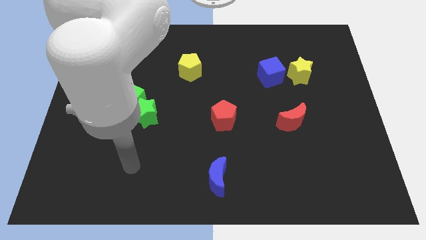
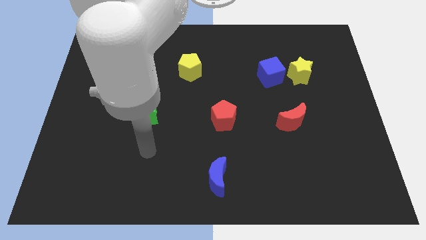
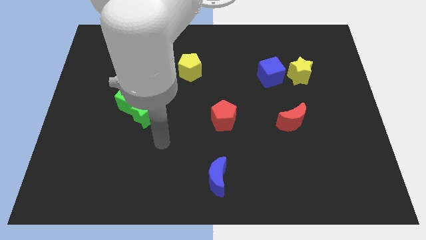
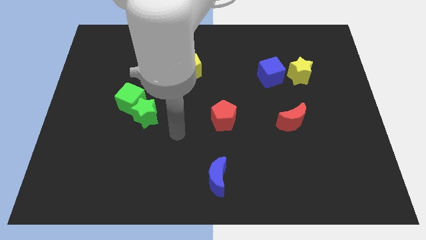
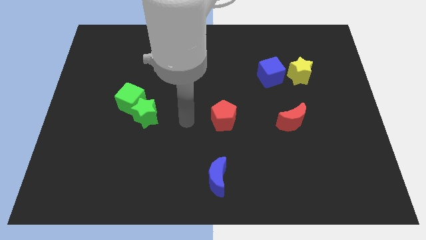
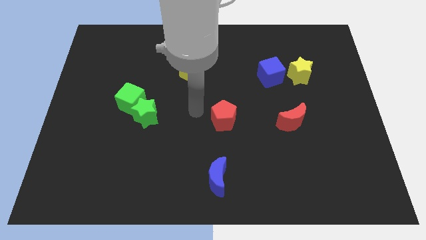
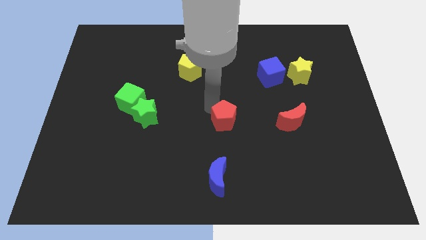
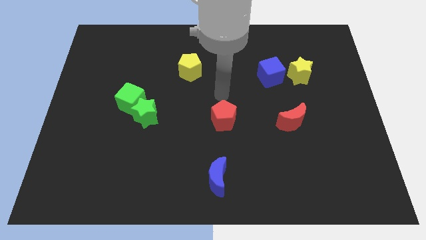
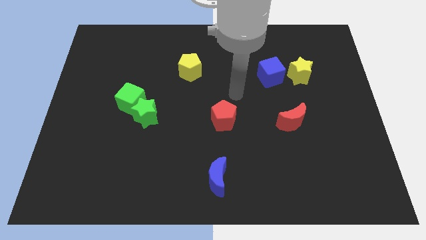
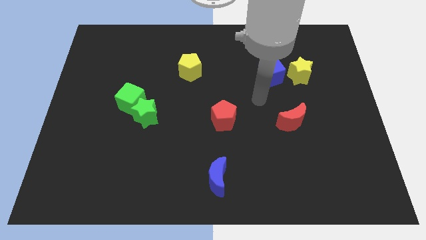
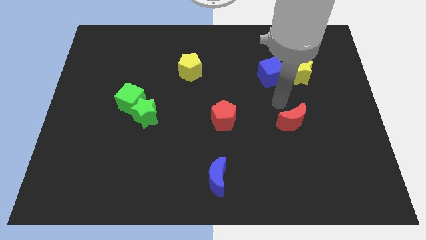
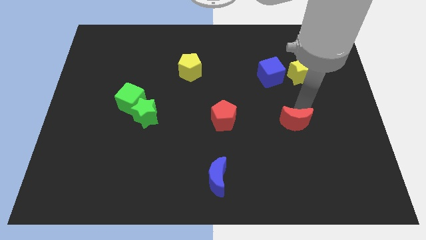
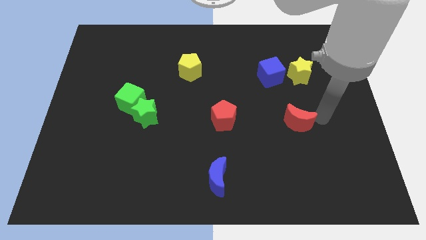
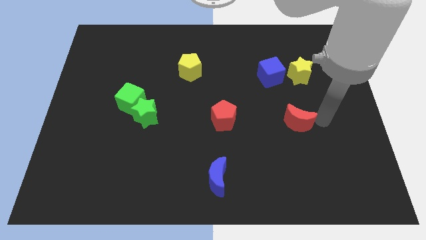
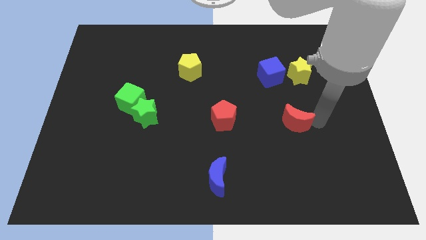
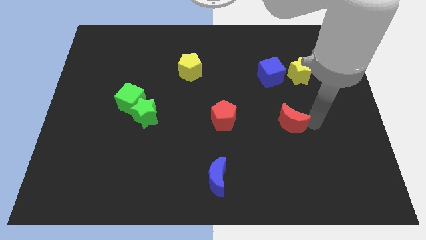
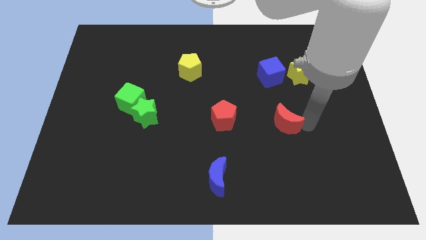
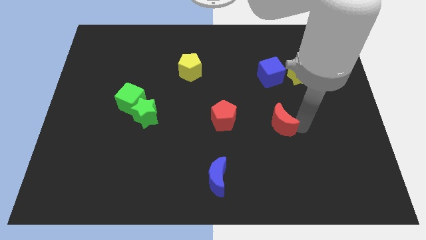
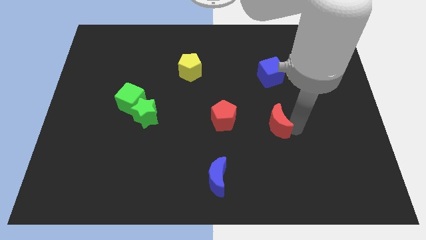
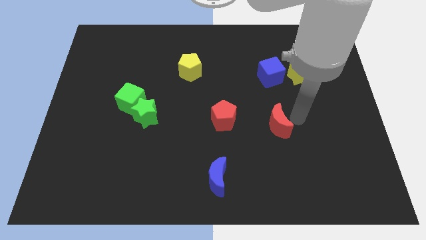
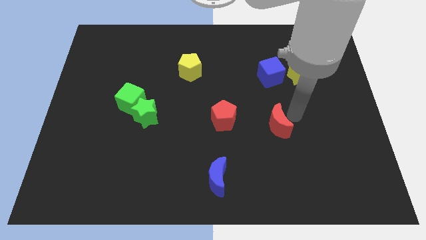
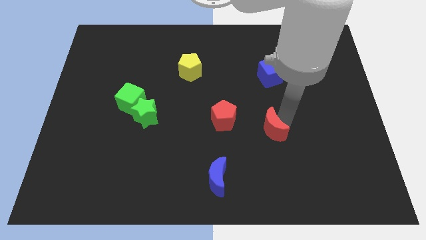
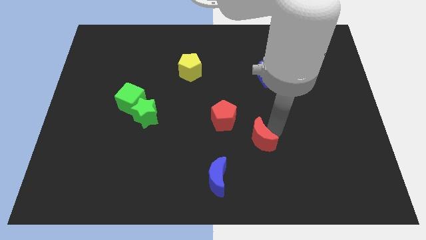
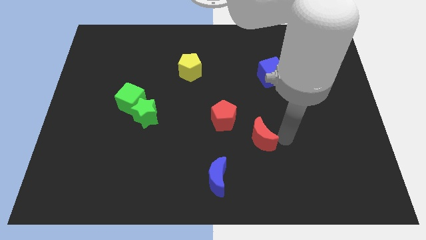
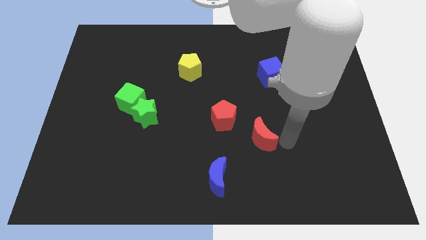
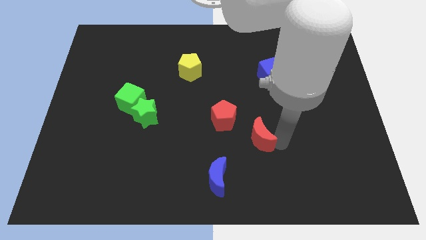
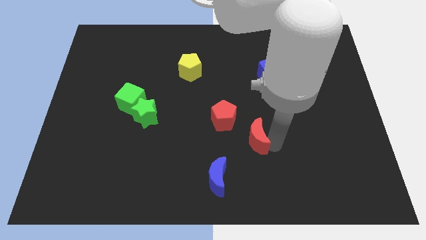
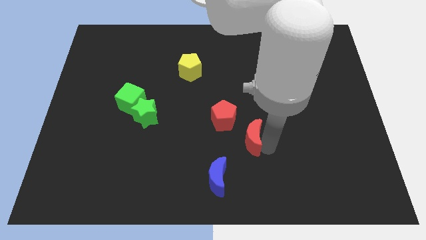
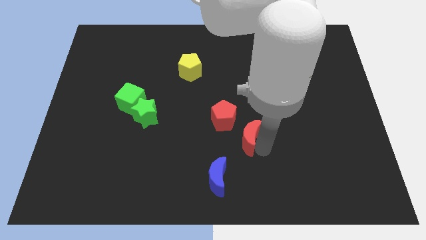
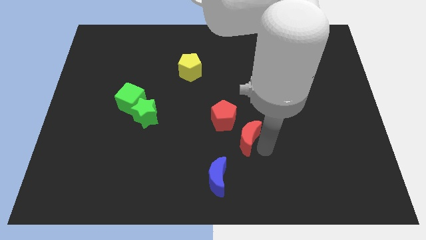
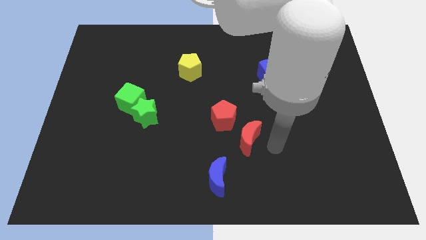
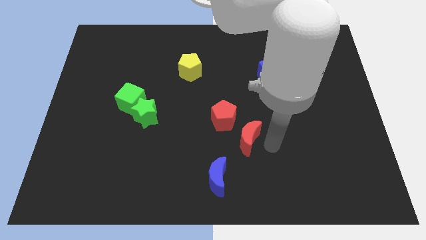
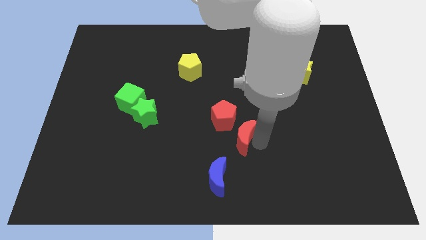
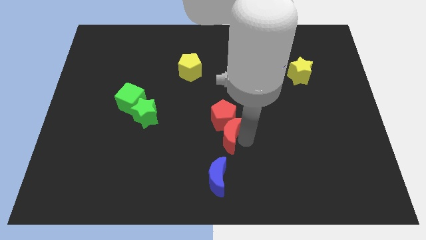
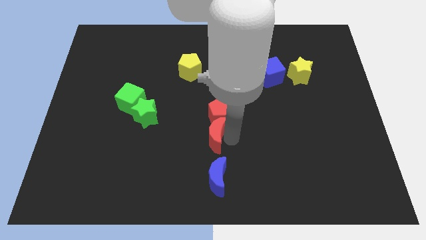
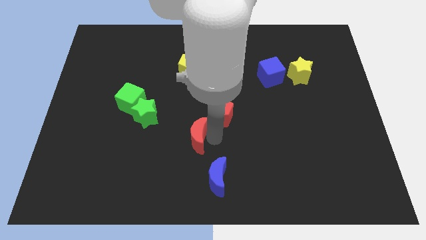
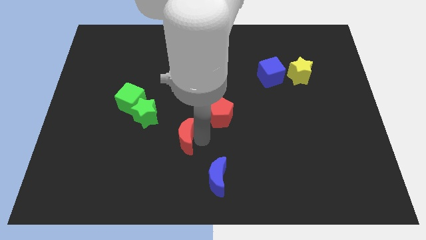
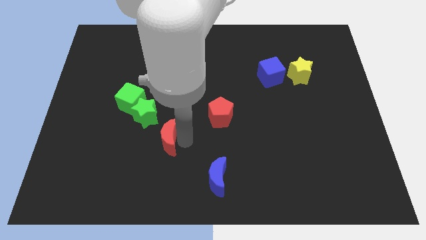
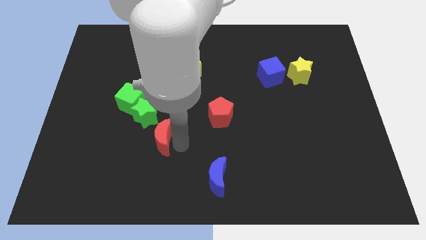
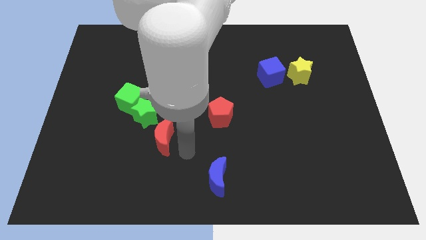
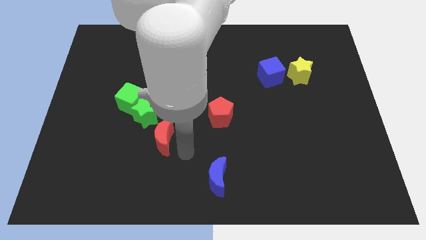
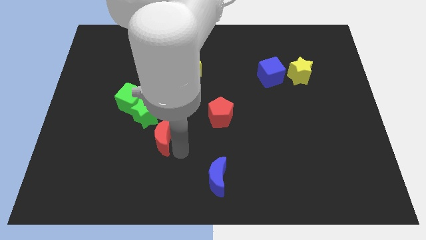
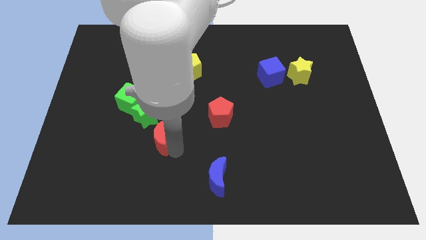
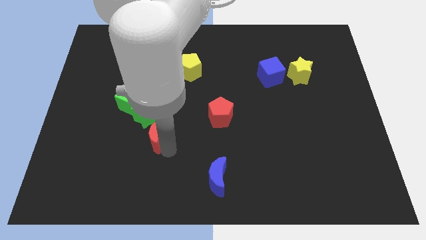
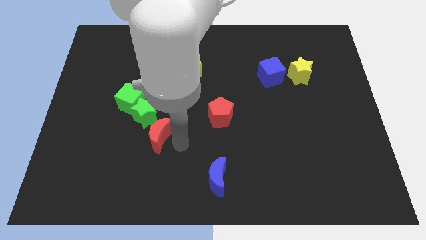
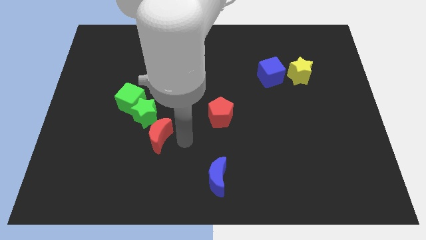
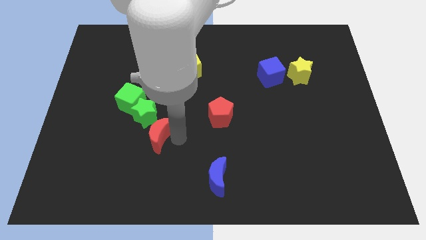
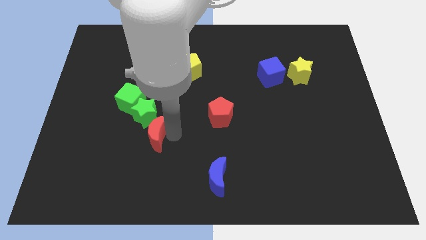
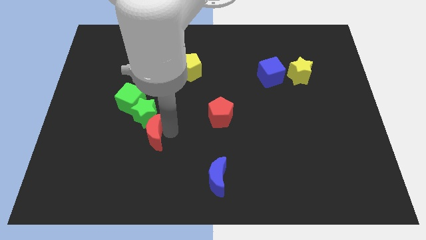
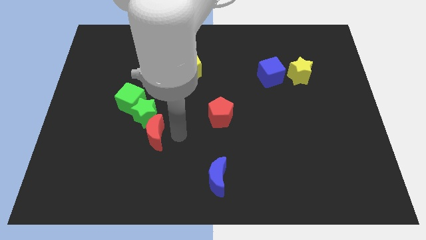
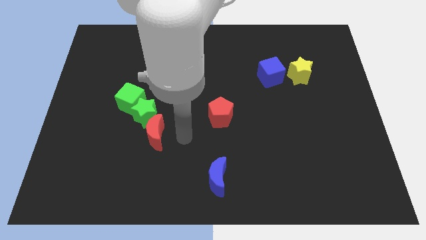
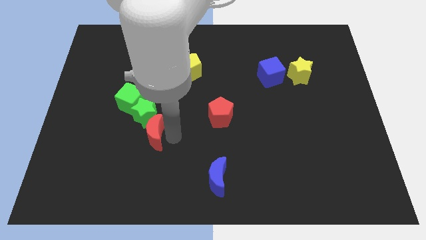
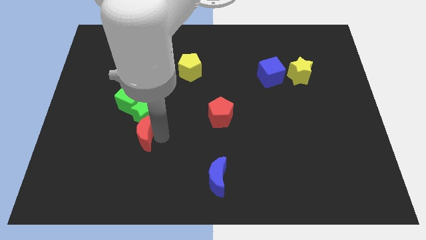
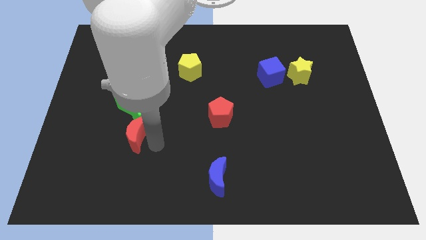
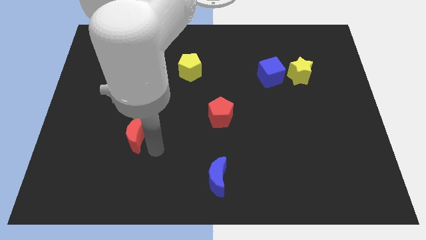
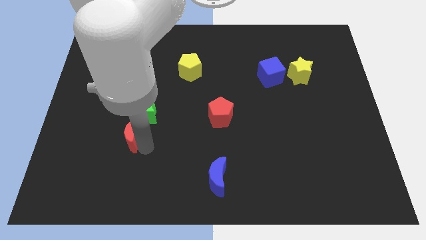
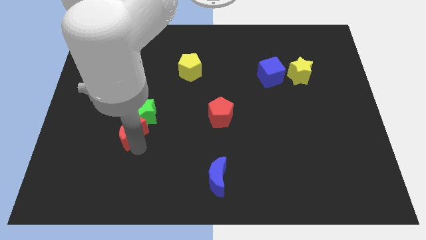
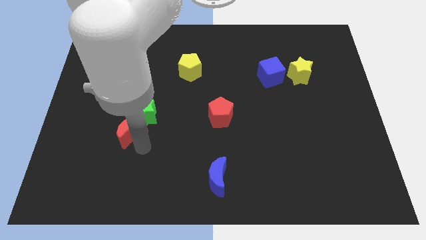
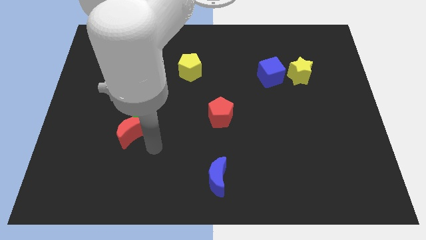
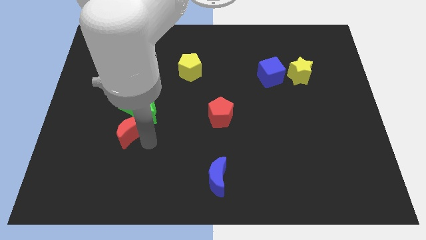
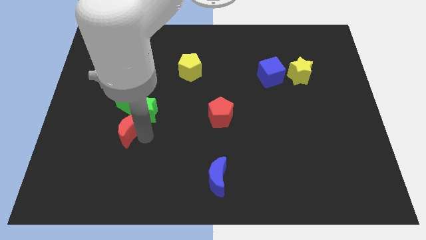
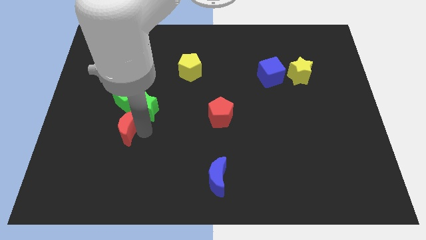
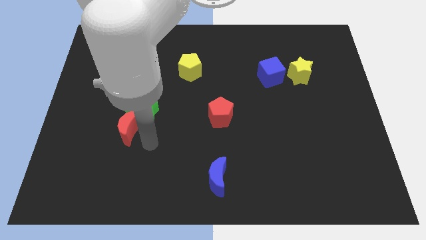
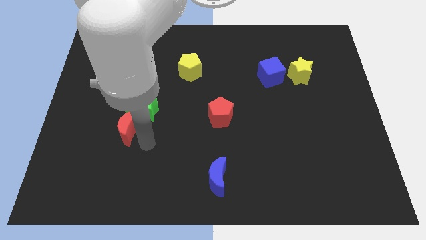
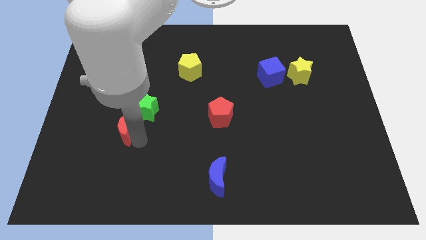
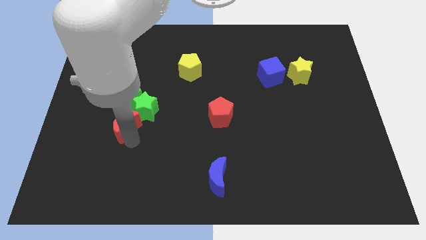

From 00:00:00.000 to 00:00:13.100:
move the red moon to the left of the green star
